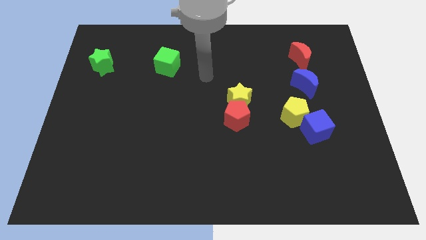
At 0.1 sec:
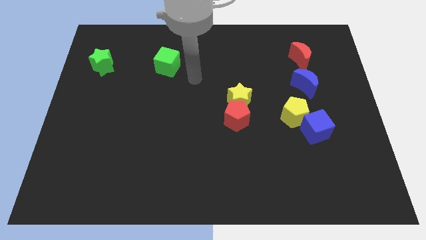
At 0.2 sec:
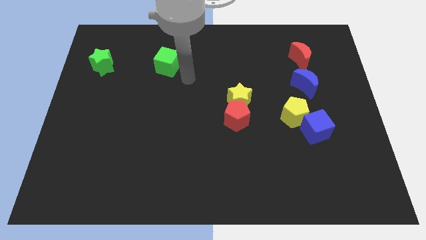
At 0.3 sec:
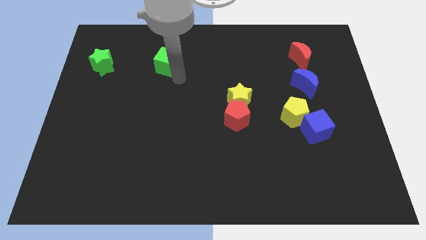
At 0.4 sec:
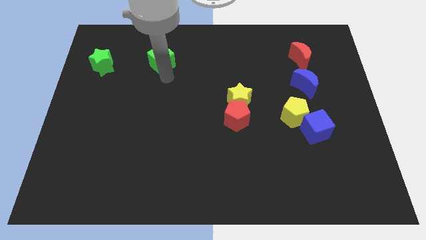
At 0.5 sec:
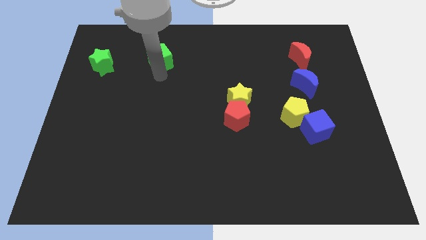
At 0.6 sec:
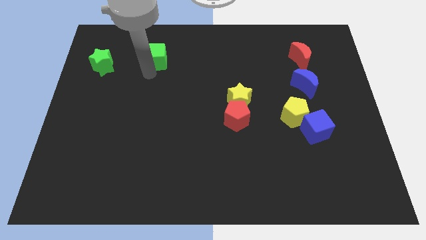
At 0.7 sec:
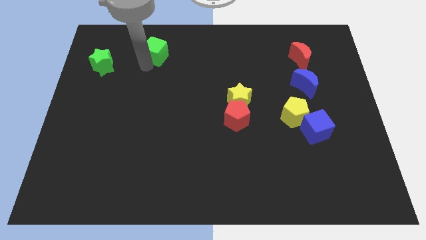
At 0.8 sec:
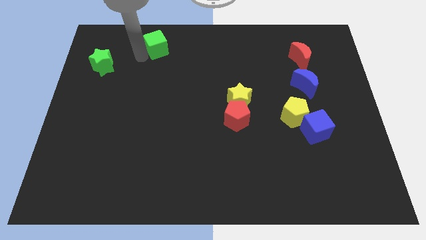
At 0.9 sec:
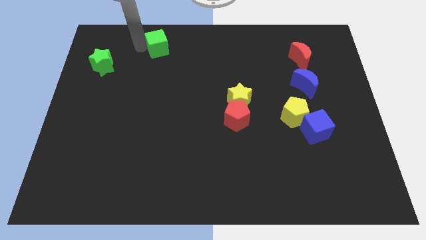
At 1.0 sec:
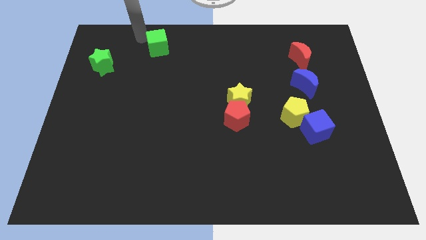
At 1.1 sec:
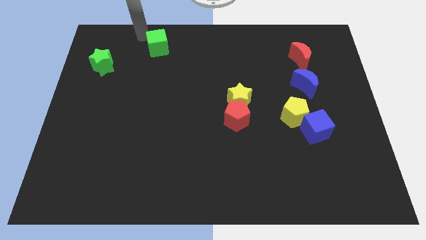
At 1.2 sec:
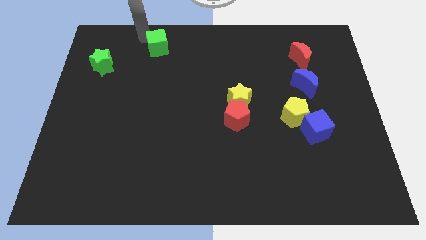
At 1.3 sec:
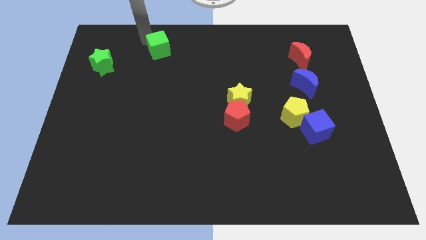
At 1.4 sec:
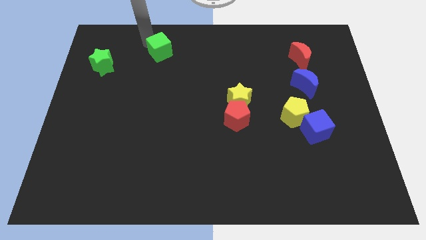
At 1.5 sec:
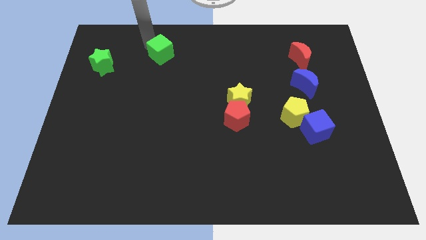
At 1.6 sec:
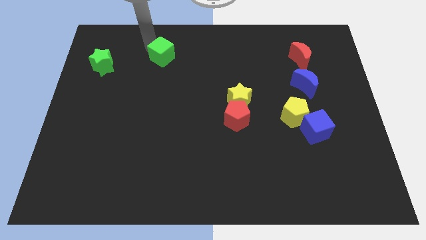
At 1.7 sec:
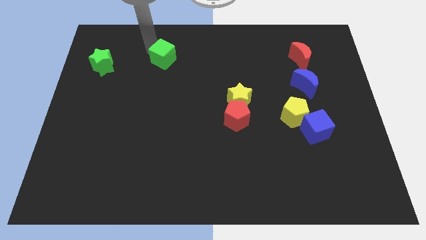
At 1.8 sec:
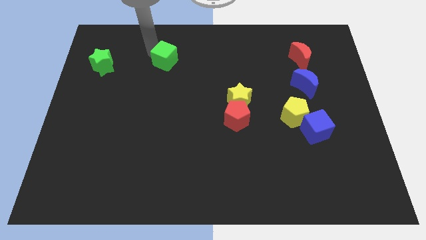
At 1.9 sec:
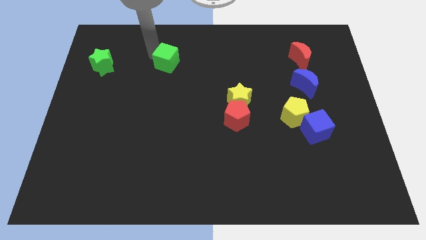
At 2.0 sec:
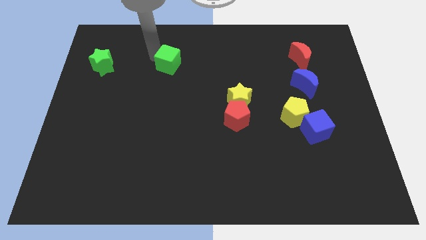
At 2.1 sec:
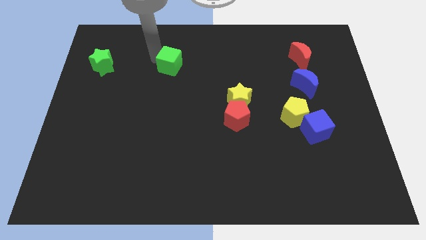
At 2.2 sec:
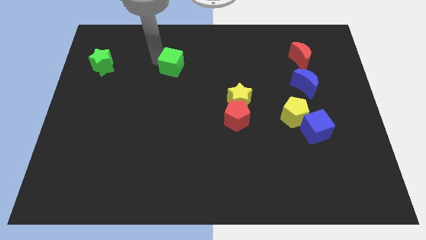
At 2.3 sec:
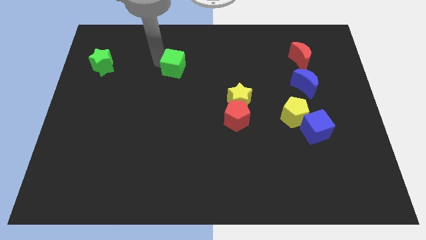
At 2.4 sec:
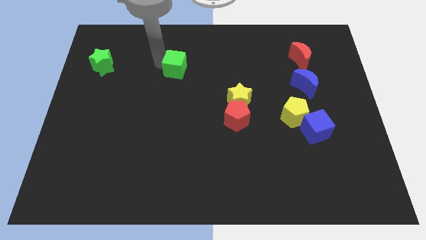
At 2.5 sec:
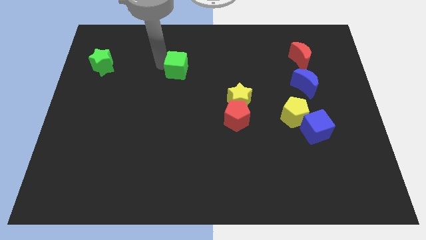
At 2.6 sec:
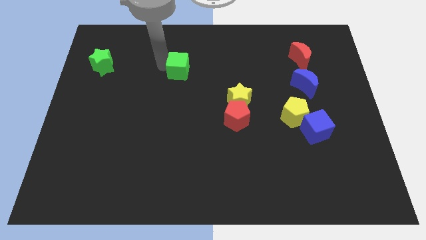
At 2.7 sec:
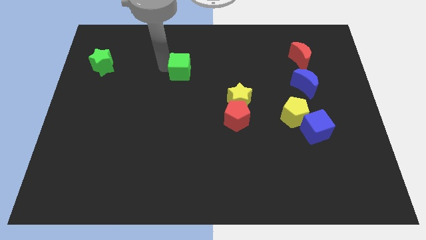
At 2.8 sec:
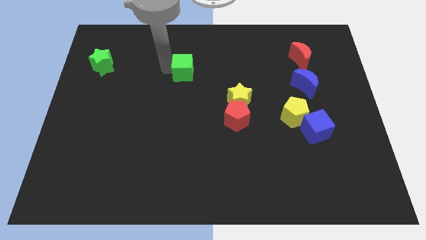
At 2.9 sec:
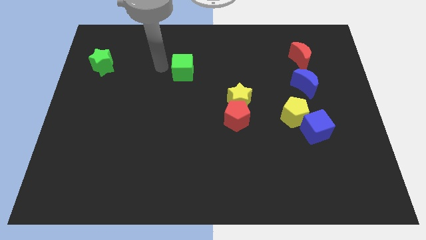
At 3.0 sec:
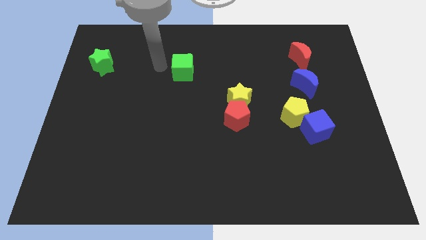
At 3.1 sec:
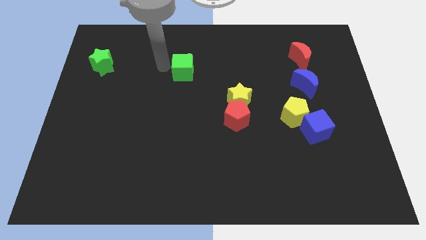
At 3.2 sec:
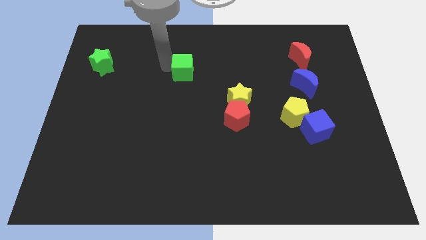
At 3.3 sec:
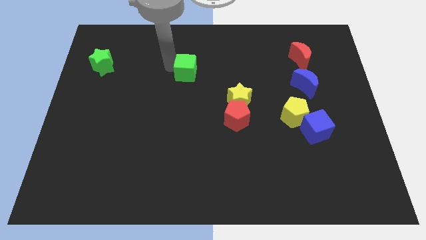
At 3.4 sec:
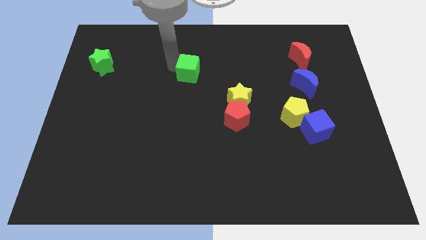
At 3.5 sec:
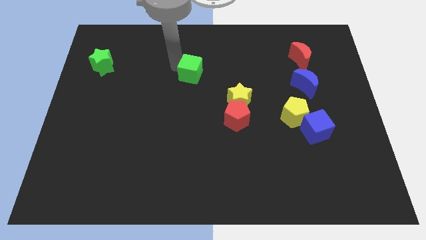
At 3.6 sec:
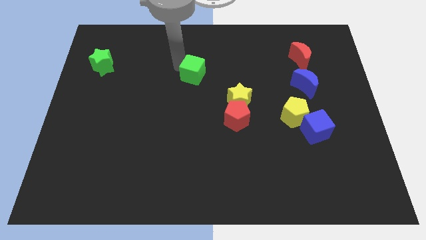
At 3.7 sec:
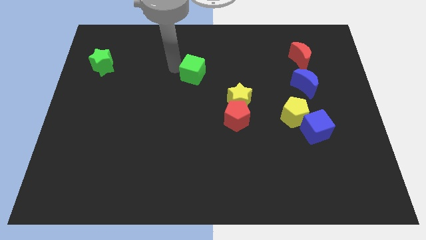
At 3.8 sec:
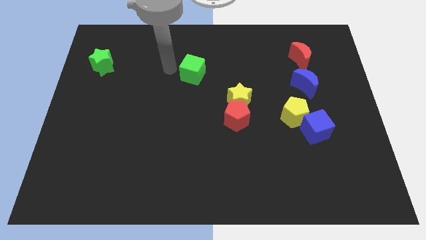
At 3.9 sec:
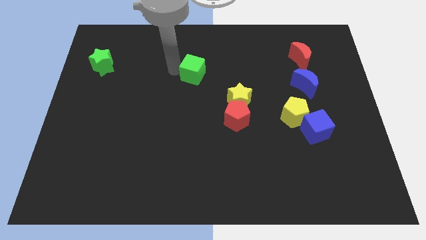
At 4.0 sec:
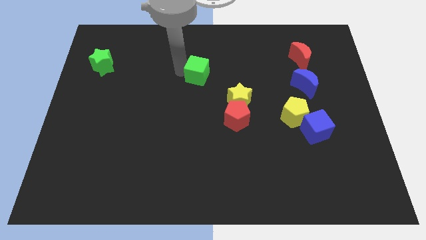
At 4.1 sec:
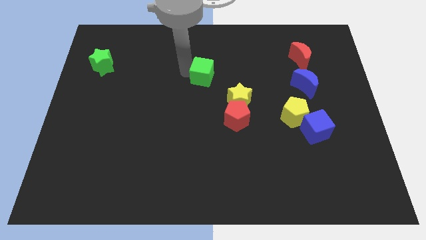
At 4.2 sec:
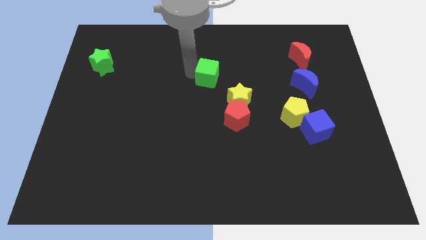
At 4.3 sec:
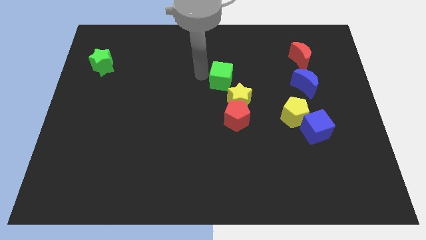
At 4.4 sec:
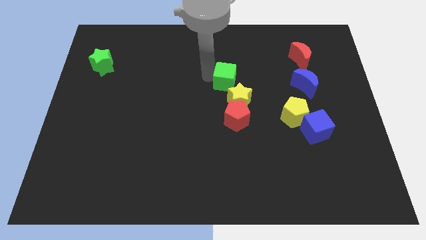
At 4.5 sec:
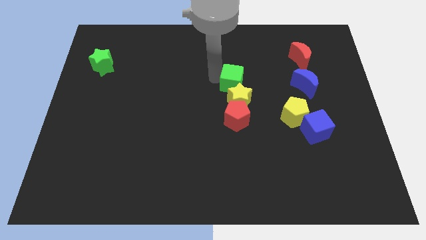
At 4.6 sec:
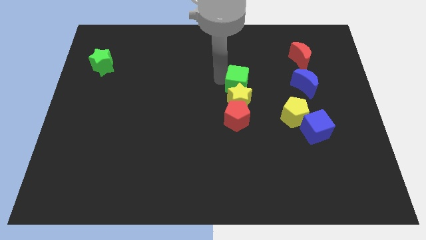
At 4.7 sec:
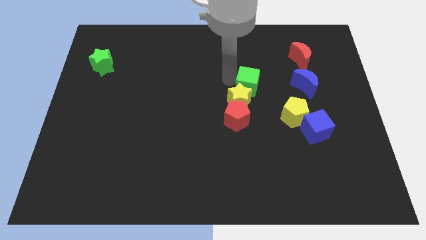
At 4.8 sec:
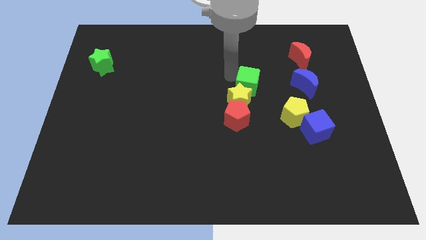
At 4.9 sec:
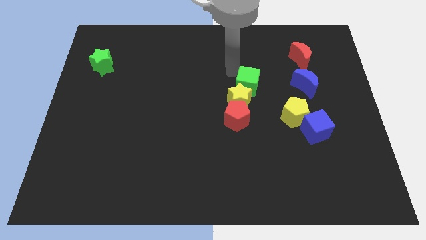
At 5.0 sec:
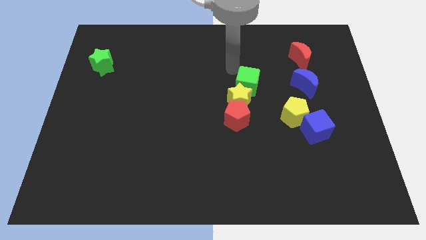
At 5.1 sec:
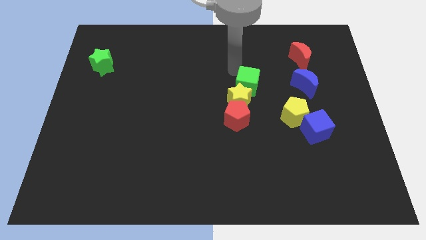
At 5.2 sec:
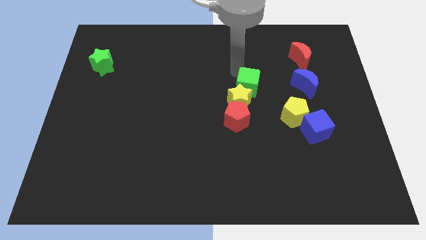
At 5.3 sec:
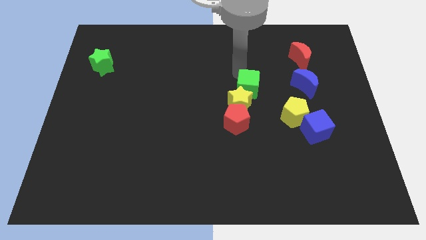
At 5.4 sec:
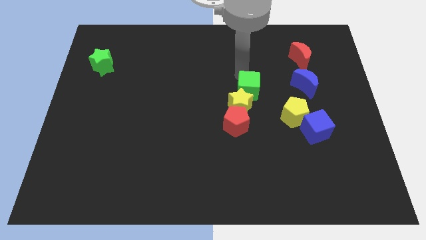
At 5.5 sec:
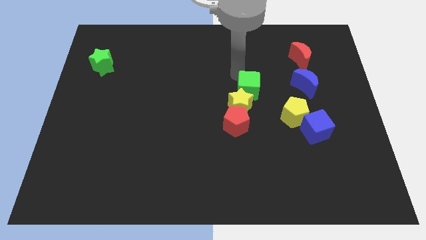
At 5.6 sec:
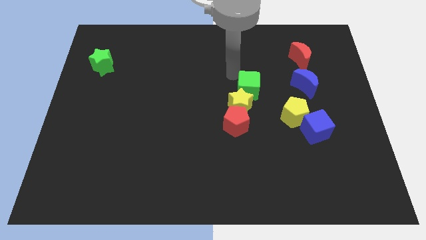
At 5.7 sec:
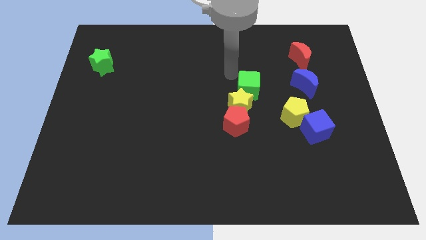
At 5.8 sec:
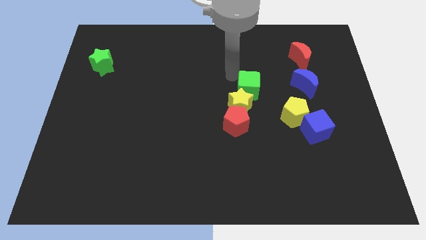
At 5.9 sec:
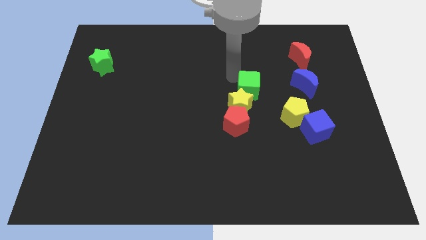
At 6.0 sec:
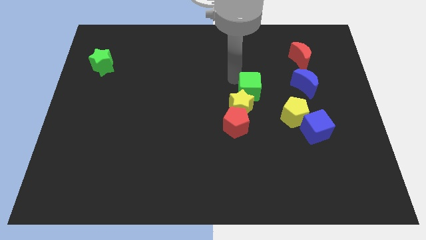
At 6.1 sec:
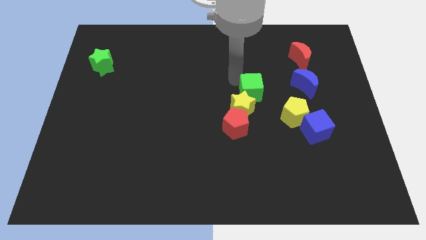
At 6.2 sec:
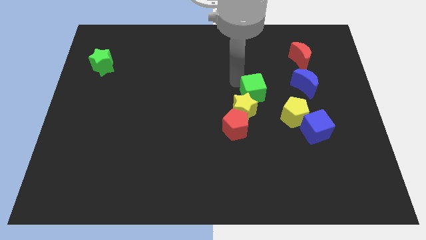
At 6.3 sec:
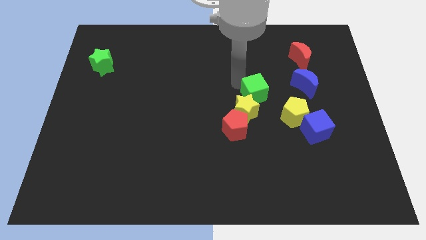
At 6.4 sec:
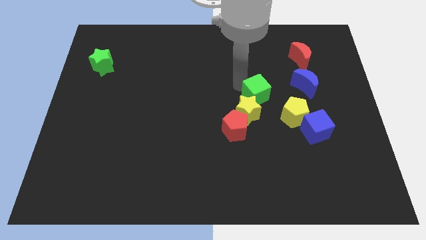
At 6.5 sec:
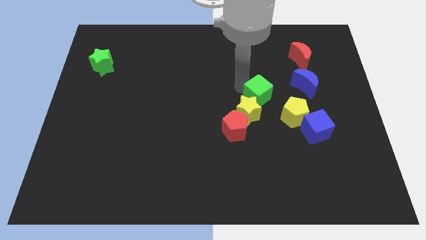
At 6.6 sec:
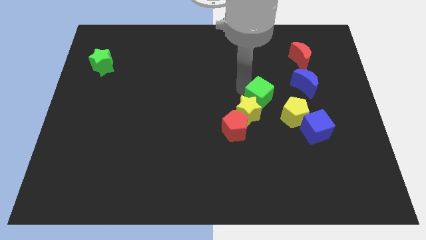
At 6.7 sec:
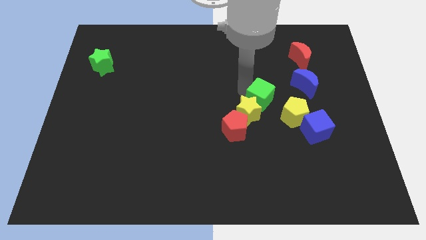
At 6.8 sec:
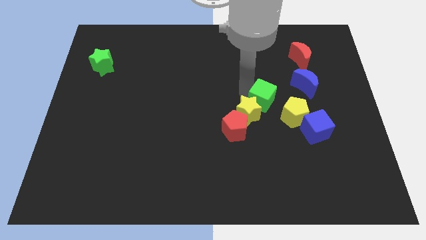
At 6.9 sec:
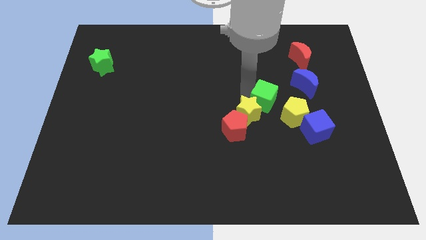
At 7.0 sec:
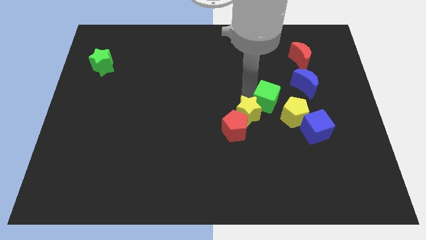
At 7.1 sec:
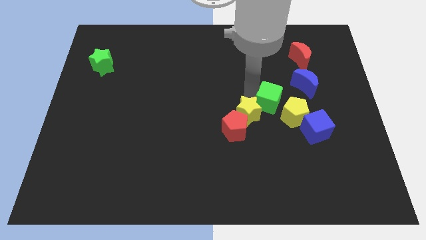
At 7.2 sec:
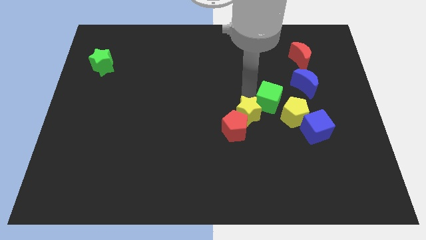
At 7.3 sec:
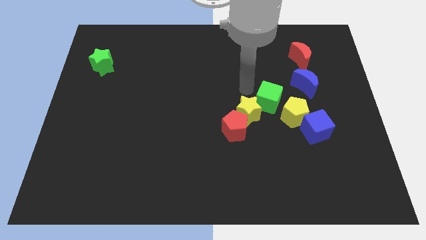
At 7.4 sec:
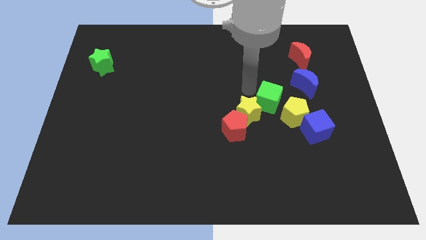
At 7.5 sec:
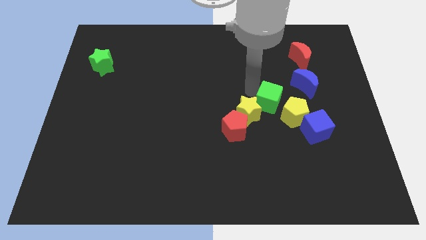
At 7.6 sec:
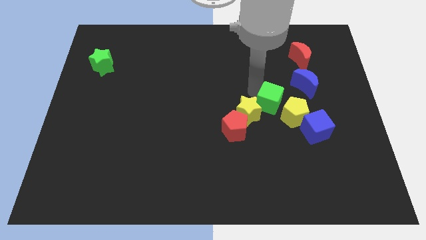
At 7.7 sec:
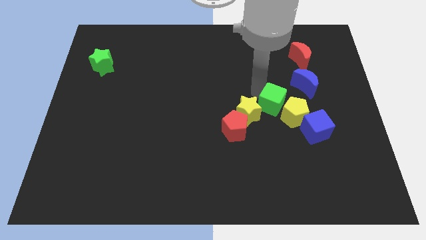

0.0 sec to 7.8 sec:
slide the green cube to the yellow pentagon
